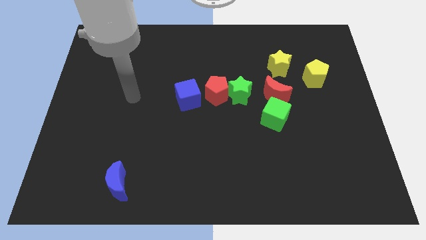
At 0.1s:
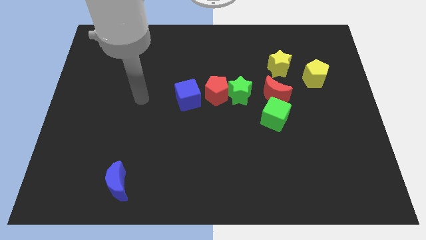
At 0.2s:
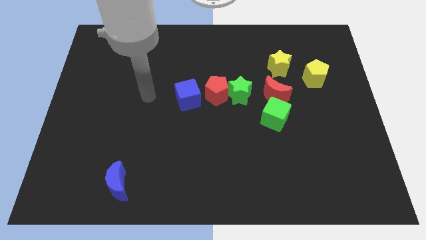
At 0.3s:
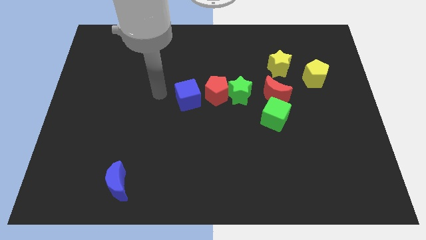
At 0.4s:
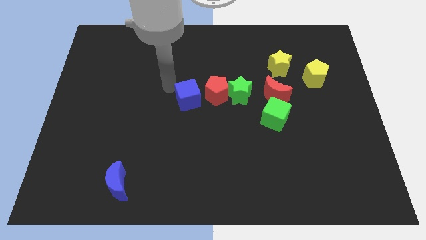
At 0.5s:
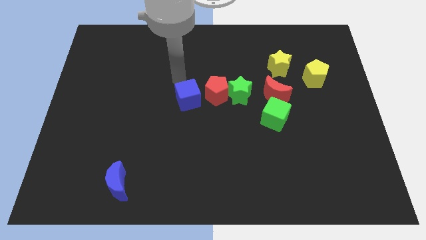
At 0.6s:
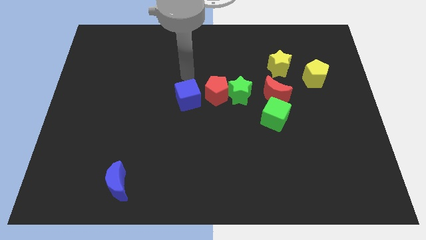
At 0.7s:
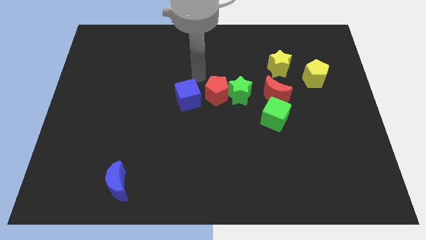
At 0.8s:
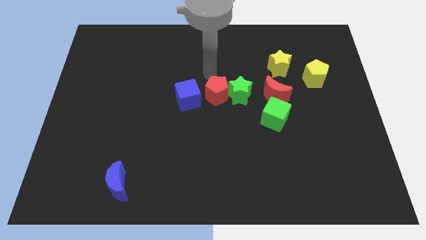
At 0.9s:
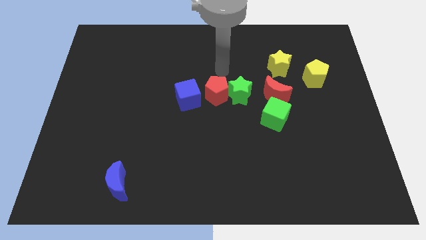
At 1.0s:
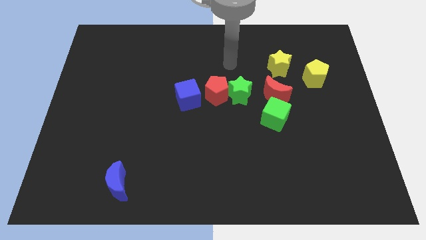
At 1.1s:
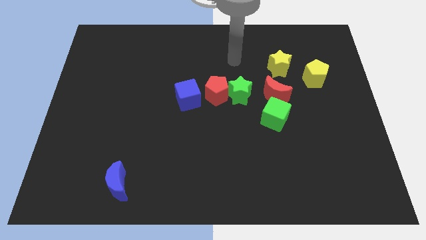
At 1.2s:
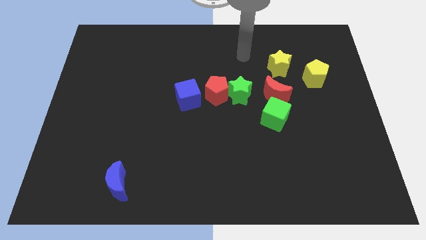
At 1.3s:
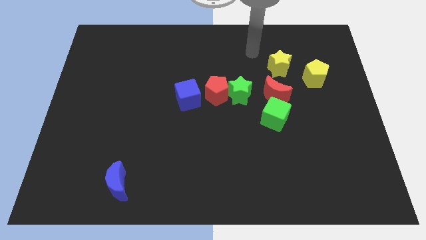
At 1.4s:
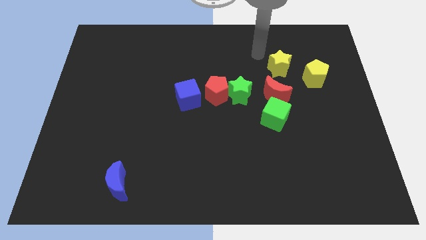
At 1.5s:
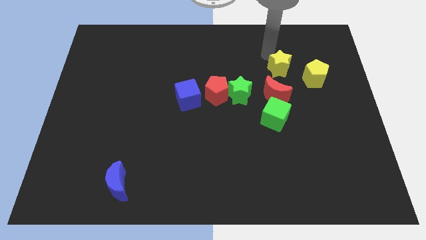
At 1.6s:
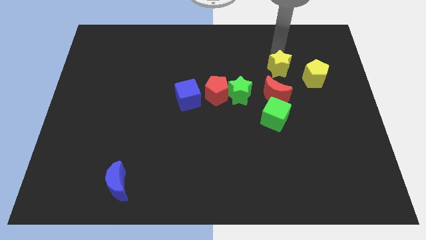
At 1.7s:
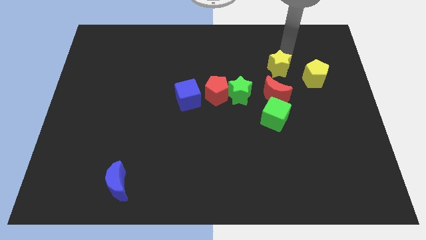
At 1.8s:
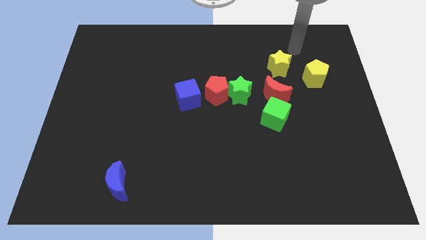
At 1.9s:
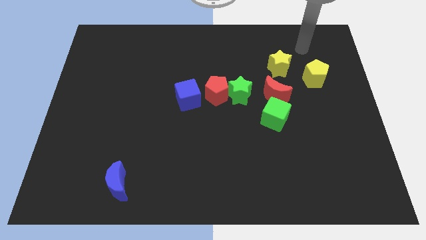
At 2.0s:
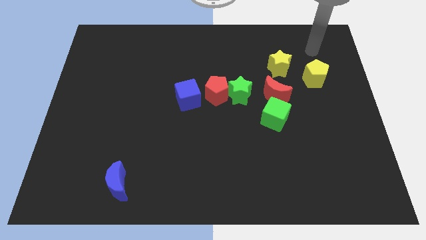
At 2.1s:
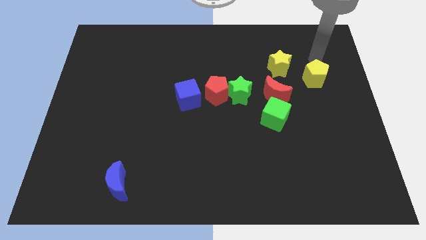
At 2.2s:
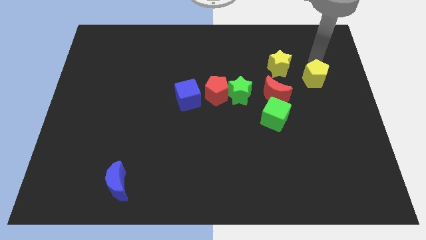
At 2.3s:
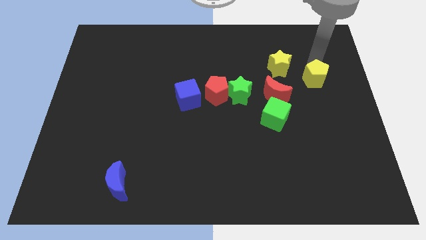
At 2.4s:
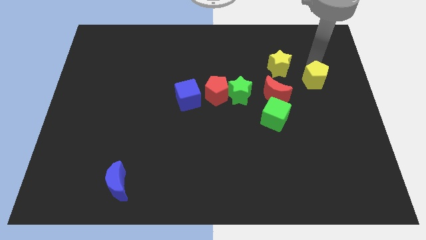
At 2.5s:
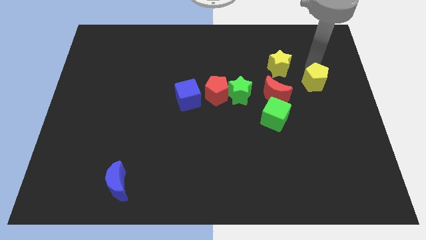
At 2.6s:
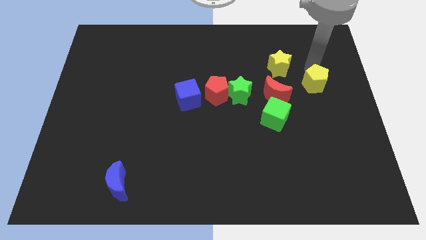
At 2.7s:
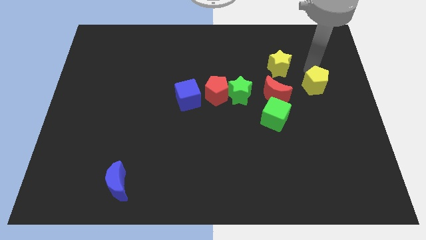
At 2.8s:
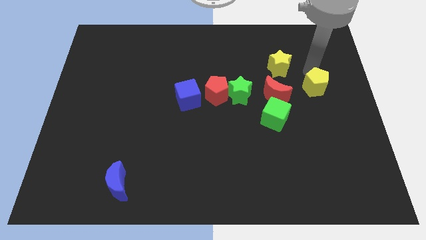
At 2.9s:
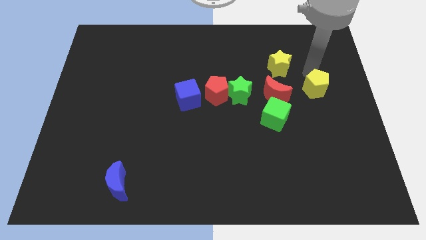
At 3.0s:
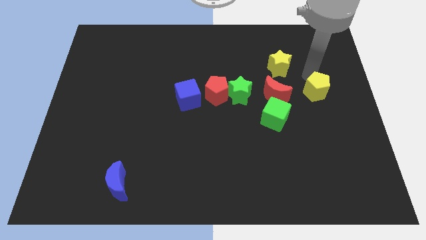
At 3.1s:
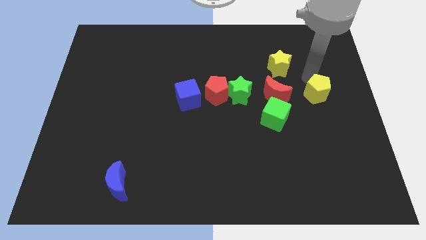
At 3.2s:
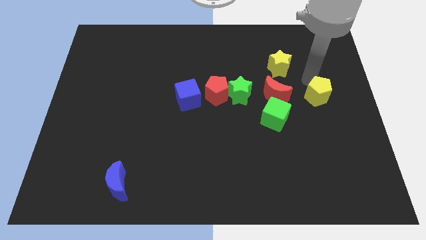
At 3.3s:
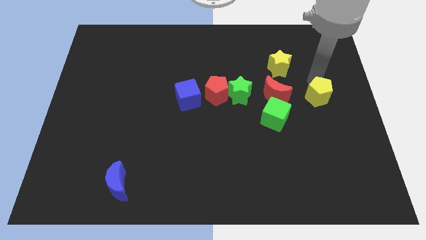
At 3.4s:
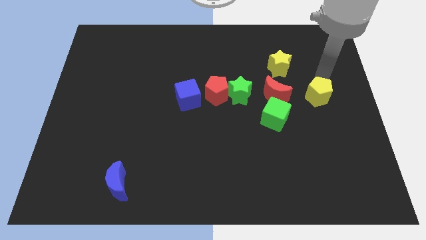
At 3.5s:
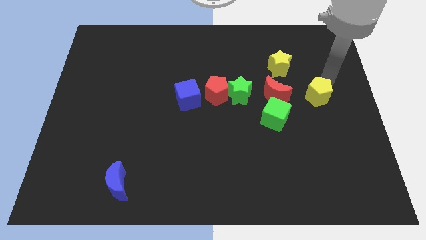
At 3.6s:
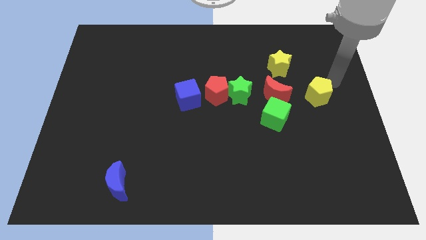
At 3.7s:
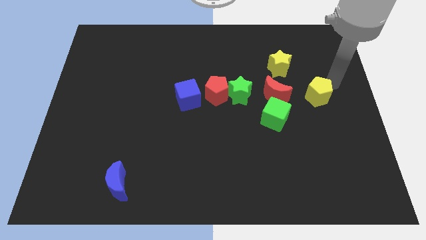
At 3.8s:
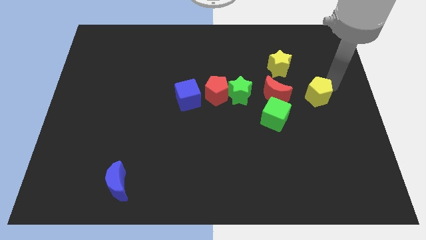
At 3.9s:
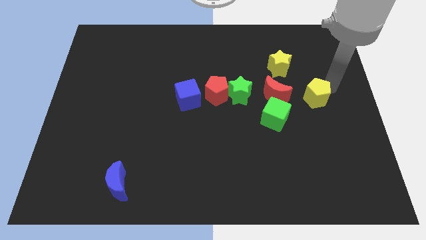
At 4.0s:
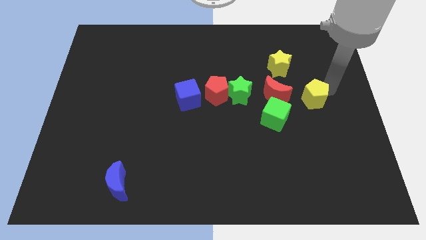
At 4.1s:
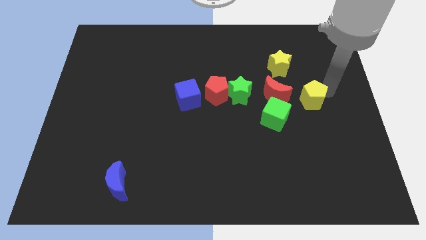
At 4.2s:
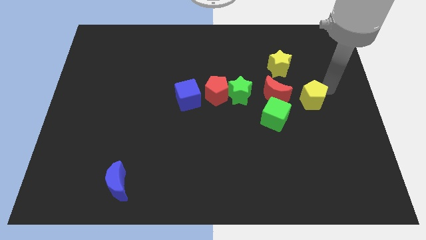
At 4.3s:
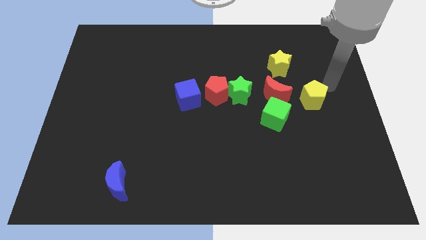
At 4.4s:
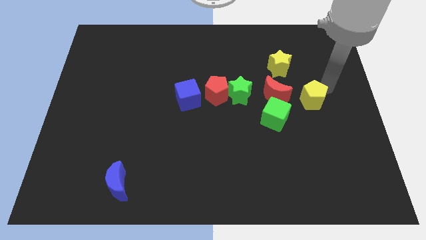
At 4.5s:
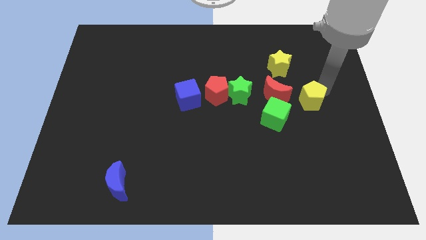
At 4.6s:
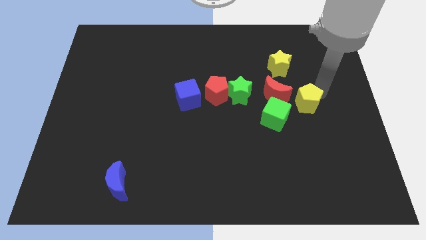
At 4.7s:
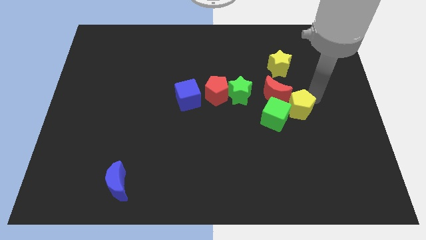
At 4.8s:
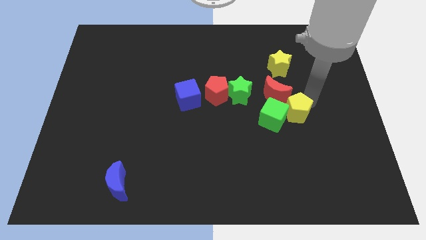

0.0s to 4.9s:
put the yellow pentagon close to the green cube

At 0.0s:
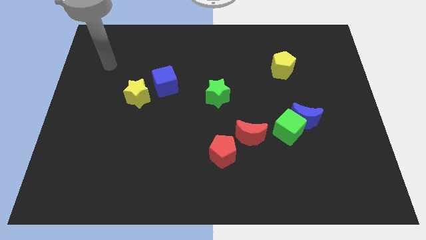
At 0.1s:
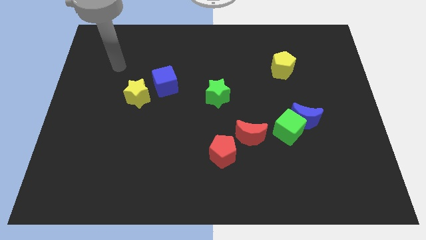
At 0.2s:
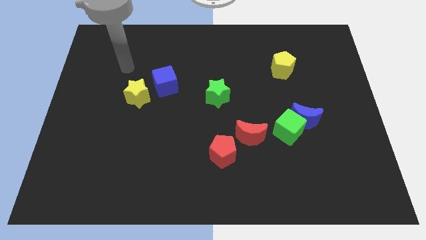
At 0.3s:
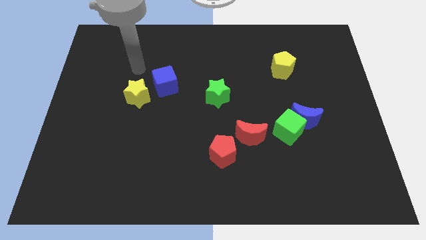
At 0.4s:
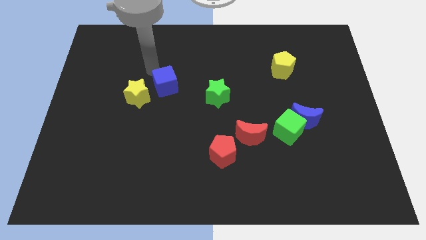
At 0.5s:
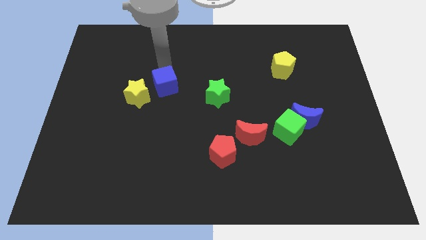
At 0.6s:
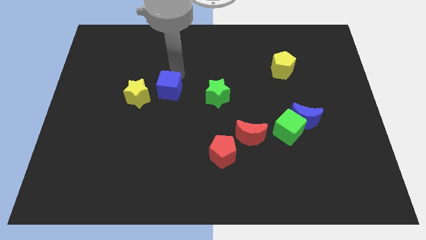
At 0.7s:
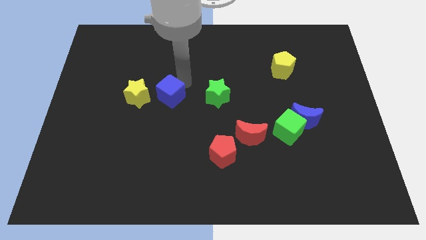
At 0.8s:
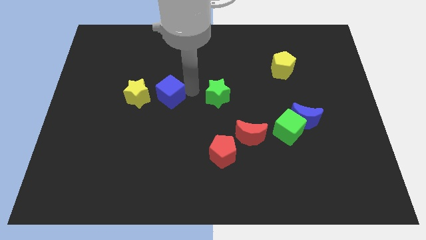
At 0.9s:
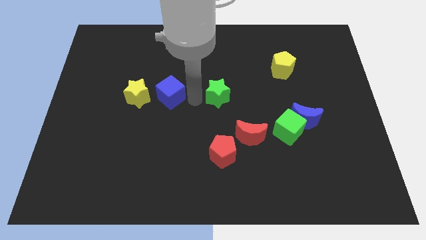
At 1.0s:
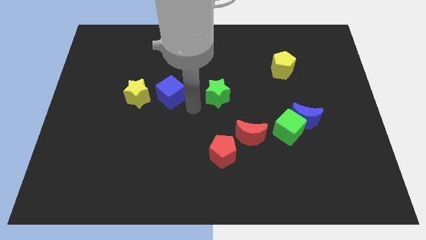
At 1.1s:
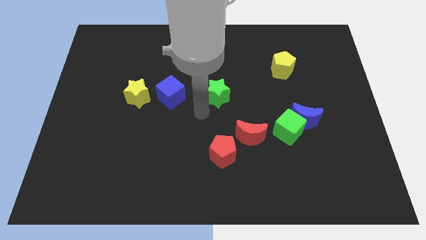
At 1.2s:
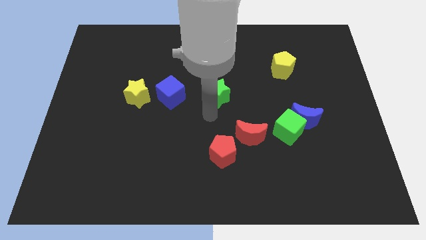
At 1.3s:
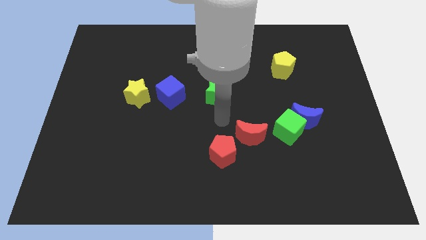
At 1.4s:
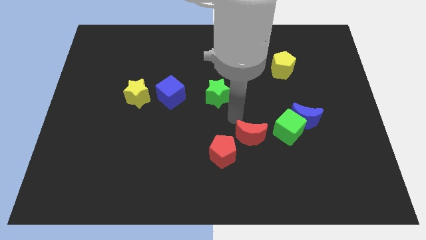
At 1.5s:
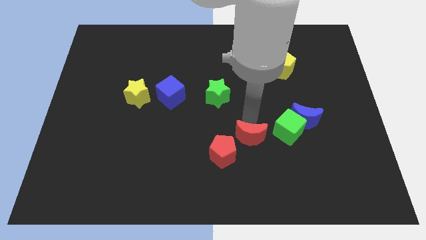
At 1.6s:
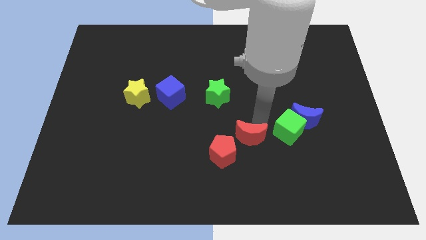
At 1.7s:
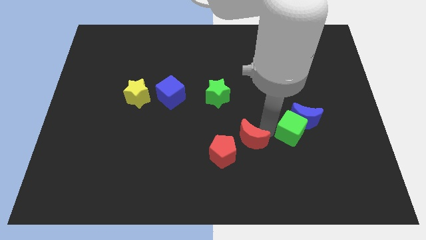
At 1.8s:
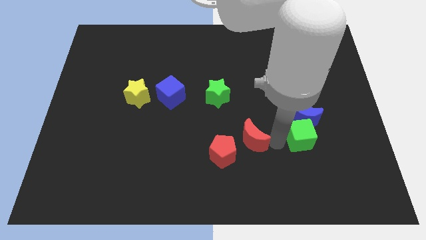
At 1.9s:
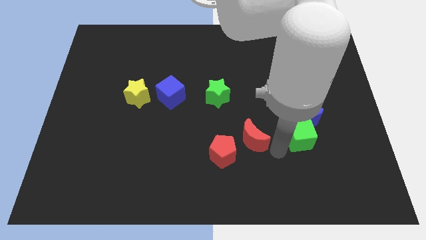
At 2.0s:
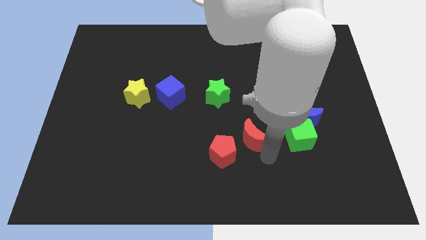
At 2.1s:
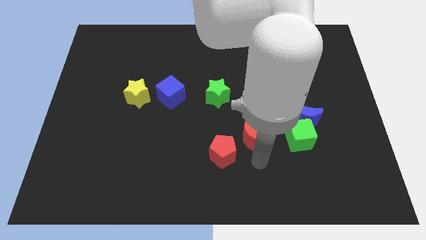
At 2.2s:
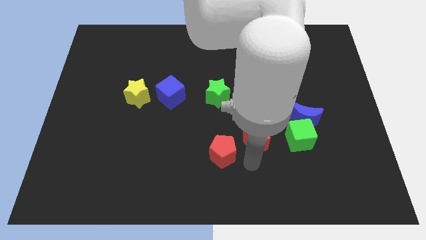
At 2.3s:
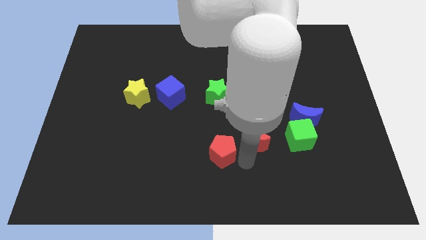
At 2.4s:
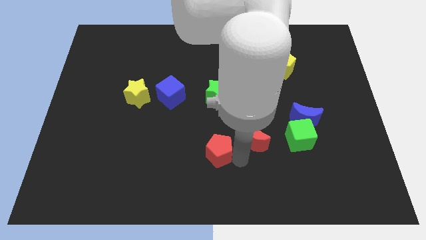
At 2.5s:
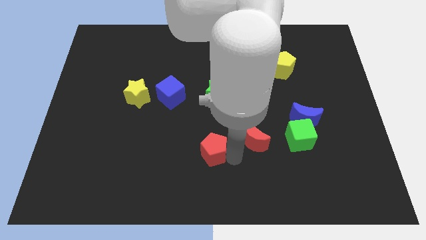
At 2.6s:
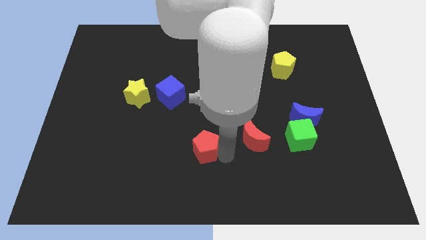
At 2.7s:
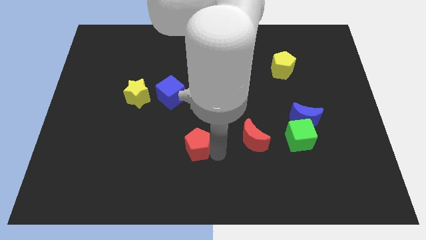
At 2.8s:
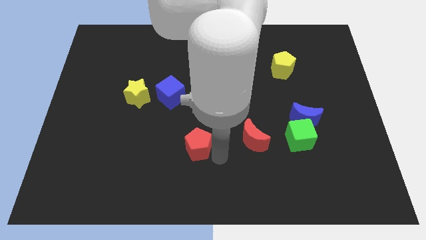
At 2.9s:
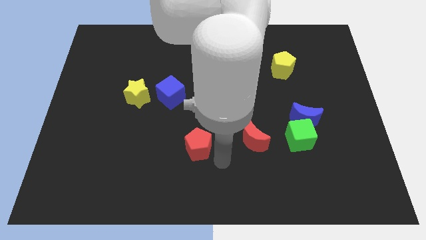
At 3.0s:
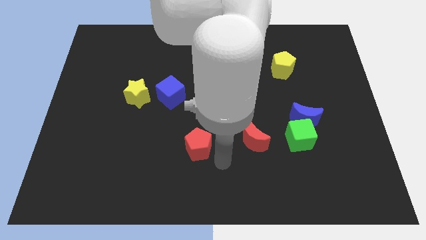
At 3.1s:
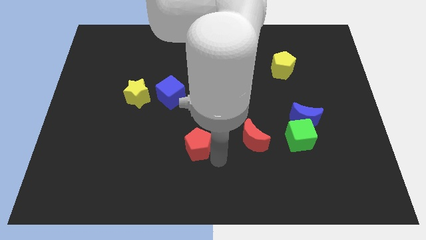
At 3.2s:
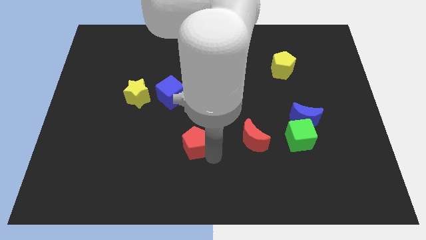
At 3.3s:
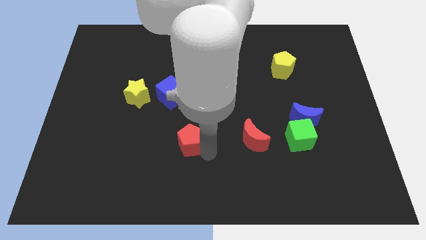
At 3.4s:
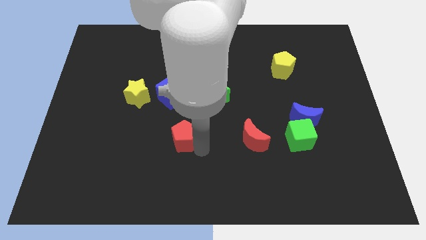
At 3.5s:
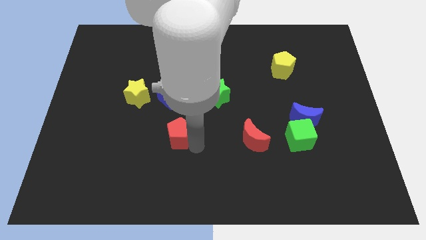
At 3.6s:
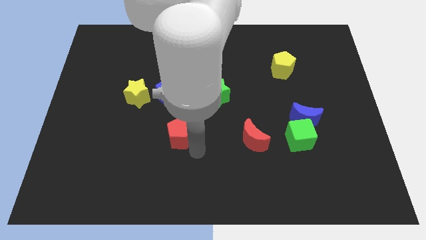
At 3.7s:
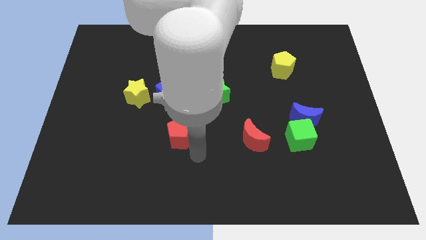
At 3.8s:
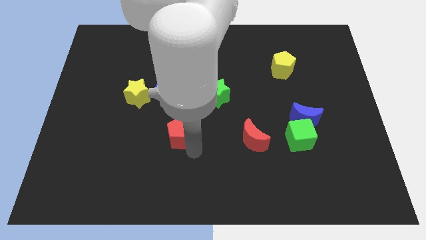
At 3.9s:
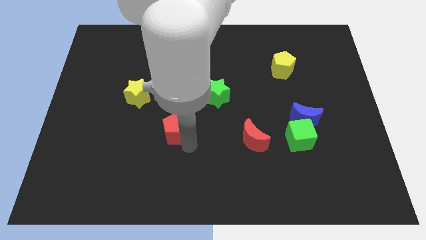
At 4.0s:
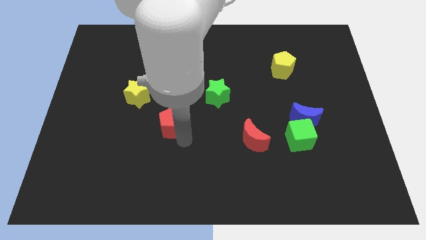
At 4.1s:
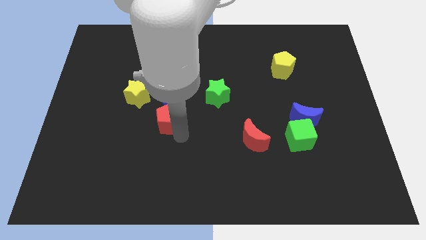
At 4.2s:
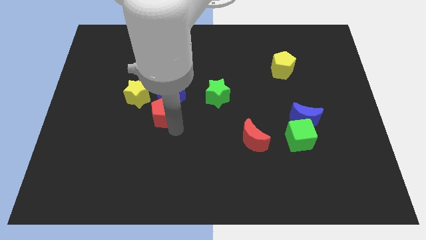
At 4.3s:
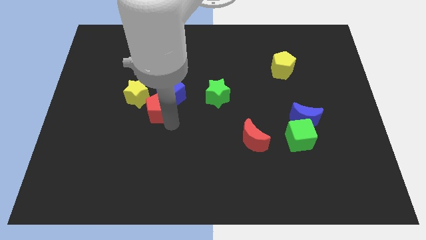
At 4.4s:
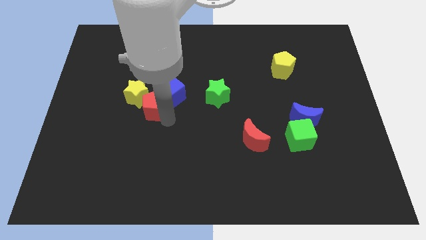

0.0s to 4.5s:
put the red pentagon next to the yellow star
